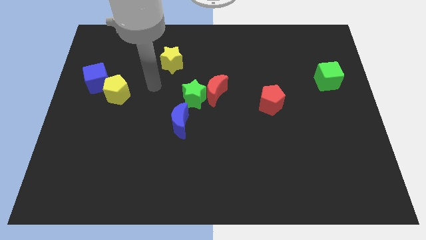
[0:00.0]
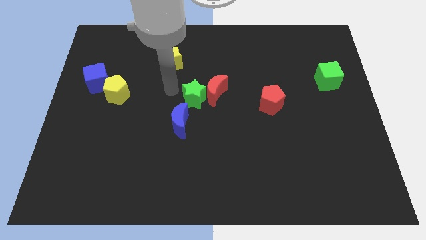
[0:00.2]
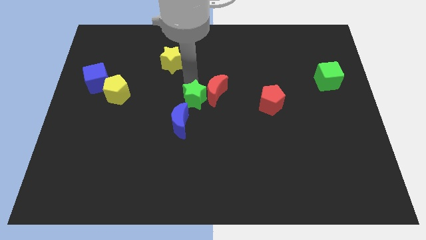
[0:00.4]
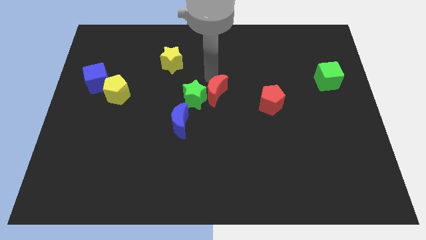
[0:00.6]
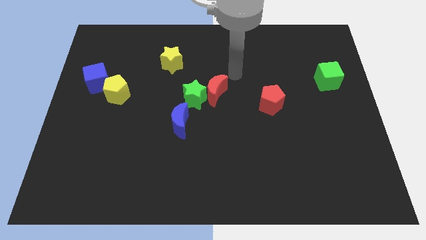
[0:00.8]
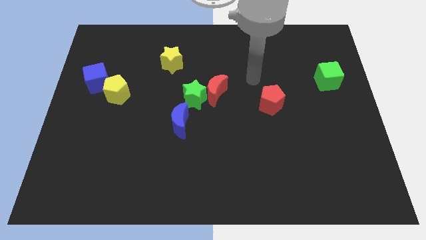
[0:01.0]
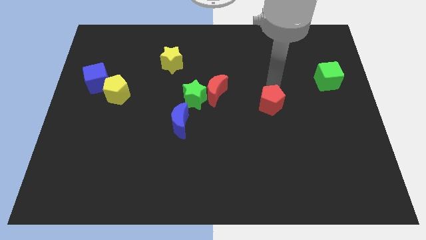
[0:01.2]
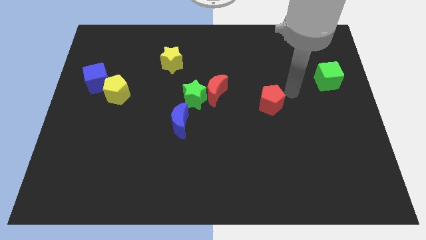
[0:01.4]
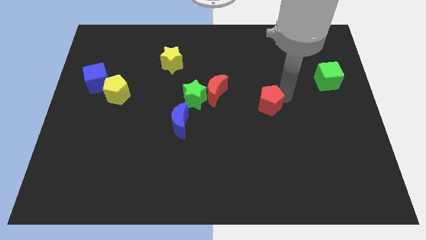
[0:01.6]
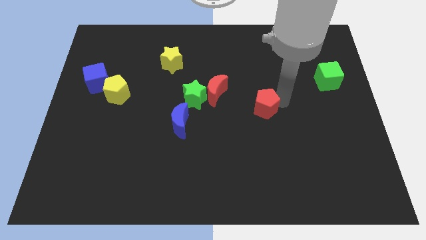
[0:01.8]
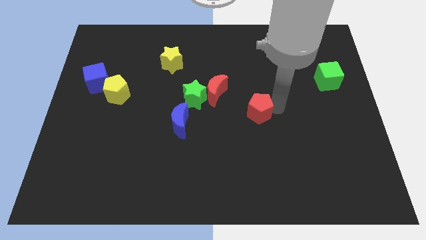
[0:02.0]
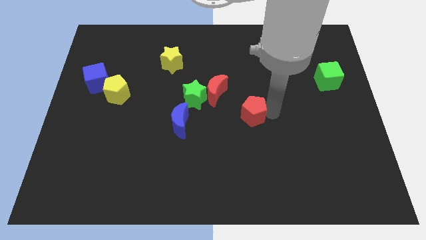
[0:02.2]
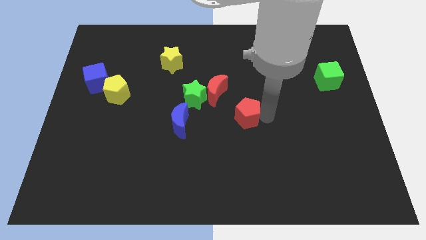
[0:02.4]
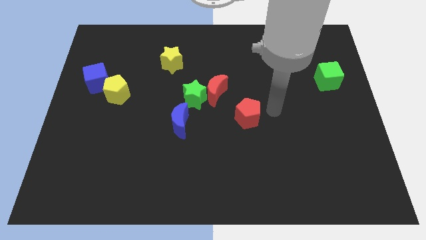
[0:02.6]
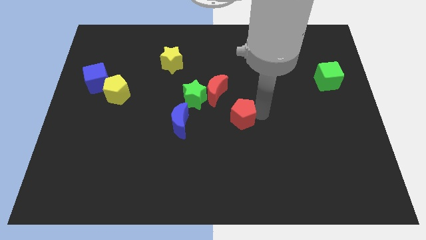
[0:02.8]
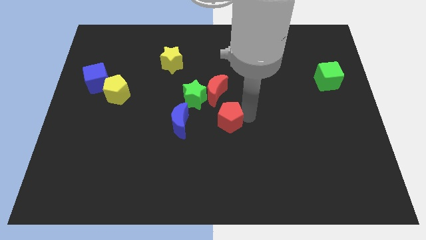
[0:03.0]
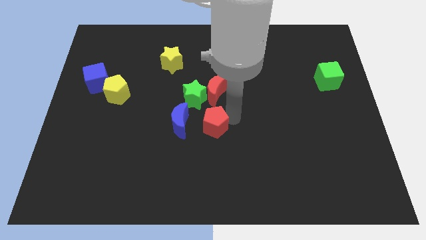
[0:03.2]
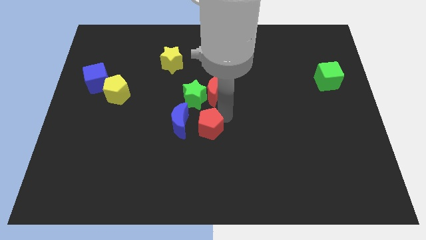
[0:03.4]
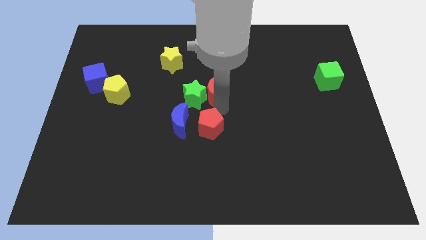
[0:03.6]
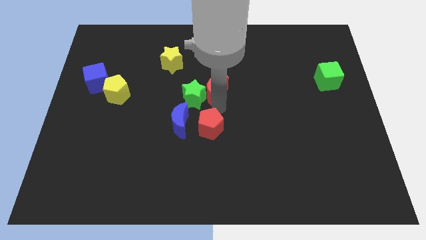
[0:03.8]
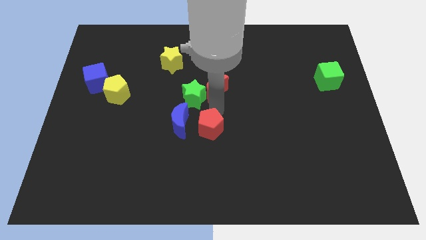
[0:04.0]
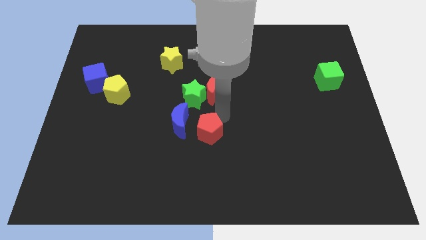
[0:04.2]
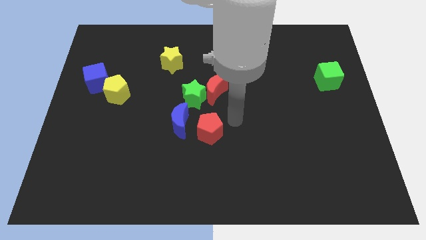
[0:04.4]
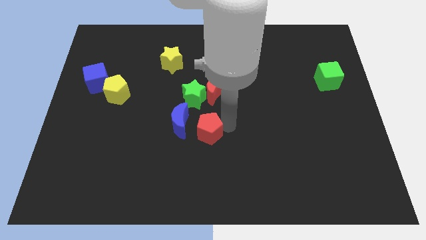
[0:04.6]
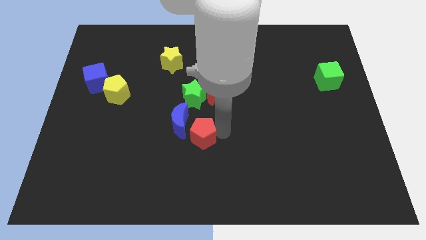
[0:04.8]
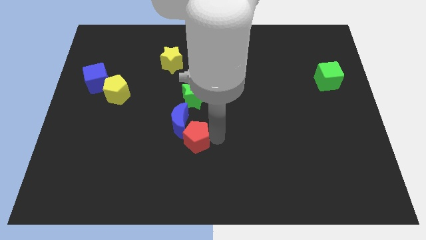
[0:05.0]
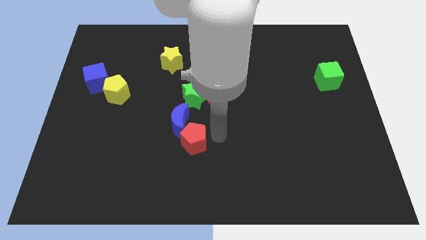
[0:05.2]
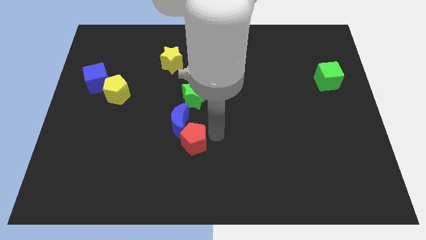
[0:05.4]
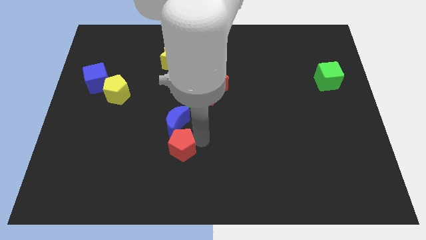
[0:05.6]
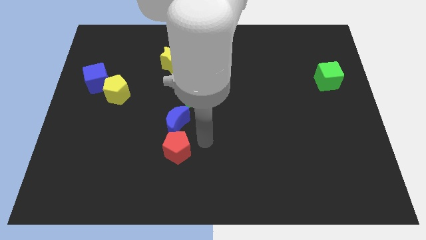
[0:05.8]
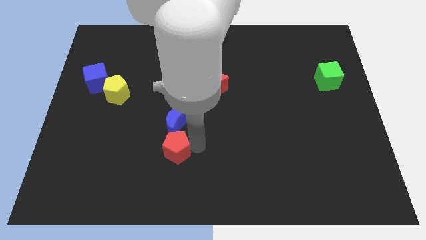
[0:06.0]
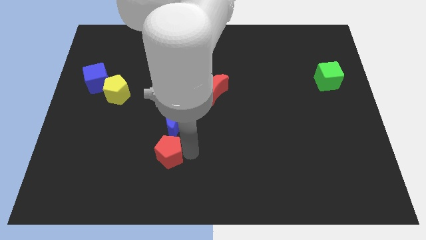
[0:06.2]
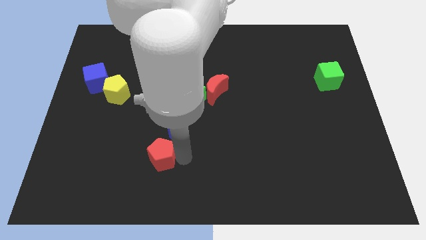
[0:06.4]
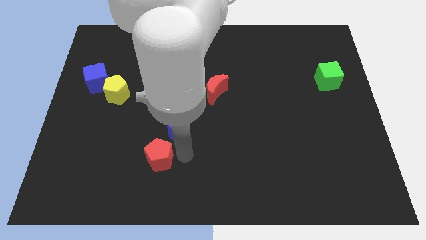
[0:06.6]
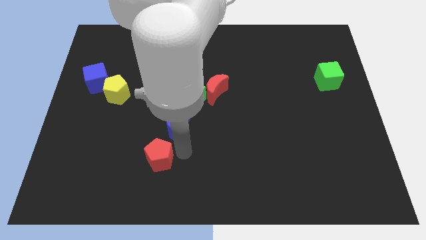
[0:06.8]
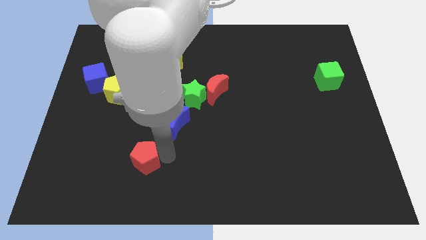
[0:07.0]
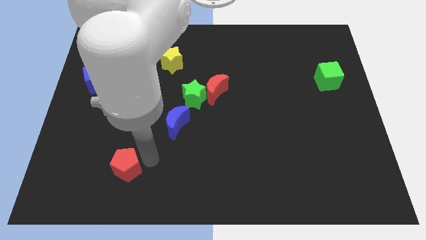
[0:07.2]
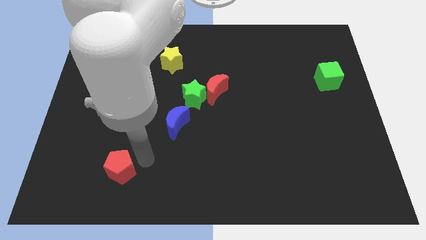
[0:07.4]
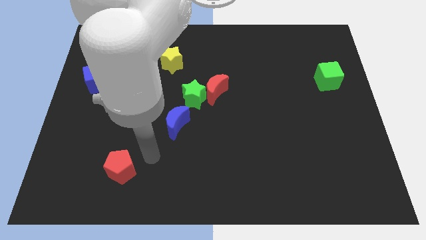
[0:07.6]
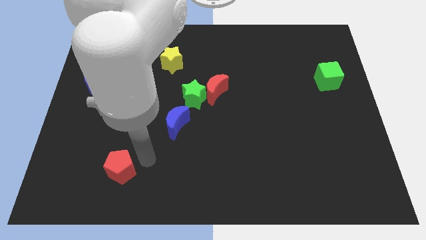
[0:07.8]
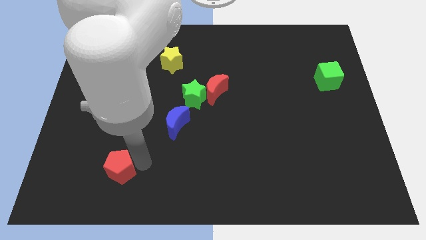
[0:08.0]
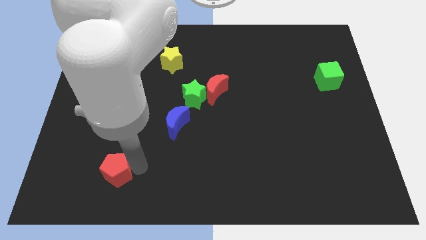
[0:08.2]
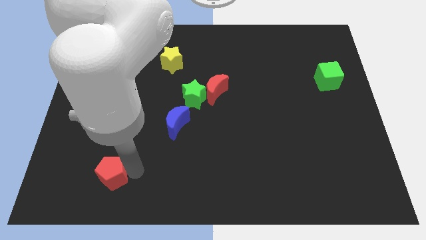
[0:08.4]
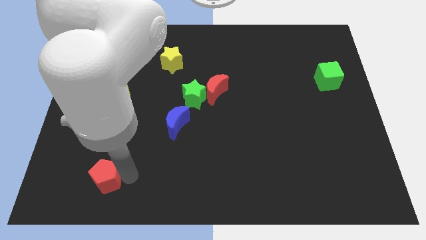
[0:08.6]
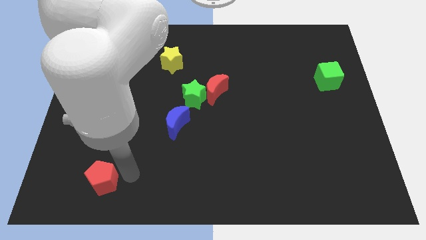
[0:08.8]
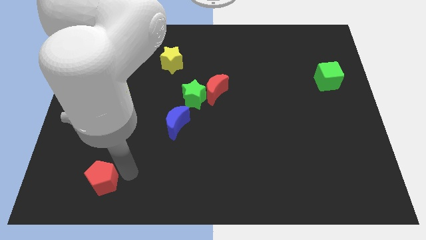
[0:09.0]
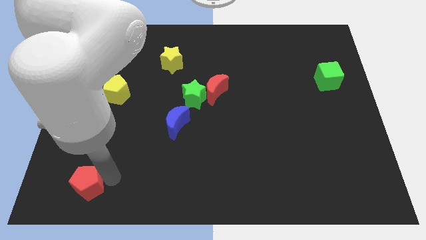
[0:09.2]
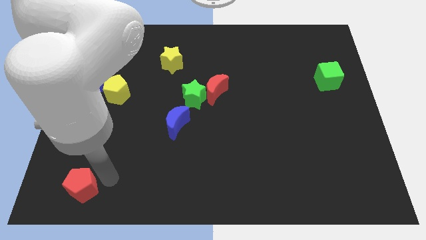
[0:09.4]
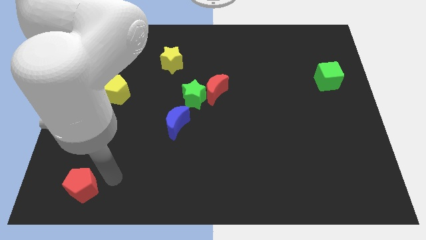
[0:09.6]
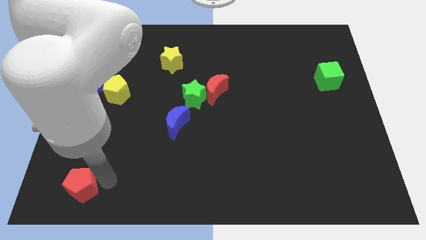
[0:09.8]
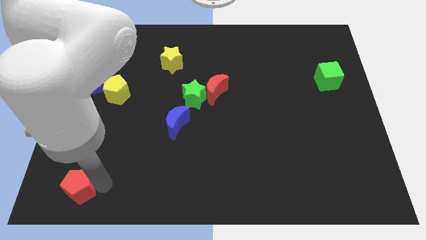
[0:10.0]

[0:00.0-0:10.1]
push the red pentagon to the bottom left of the board
